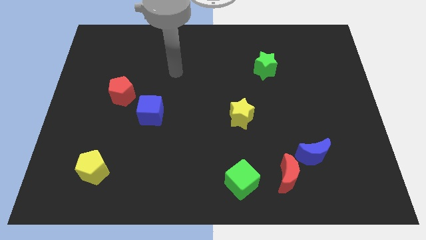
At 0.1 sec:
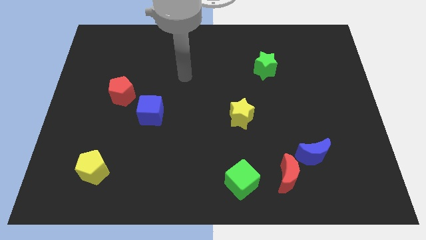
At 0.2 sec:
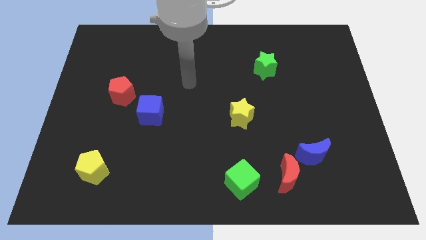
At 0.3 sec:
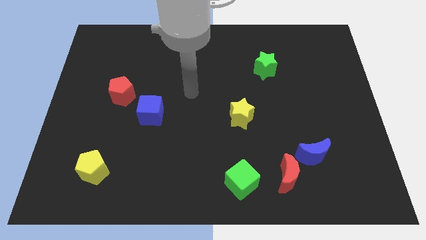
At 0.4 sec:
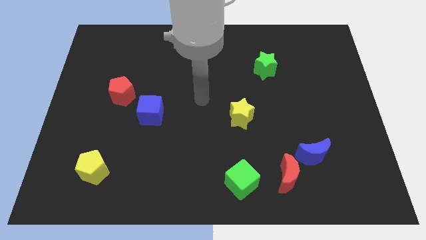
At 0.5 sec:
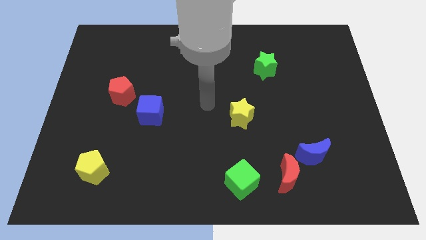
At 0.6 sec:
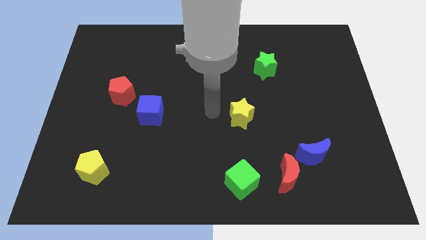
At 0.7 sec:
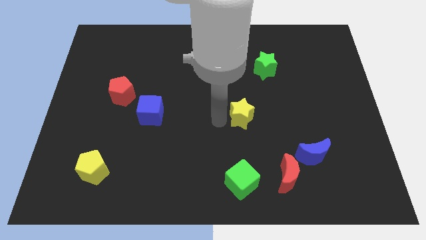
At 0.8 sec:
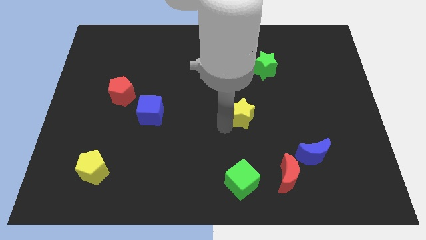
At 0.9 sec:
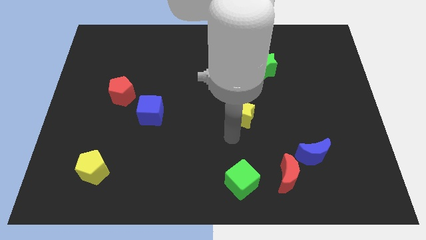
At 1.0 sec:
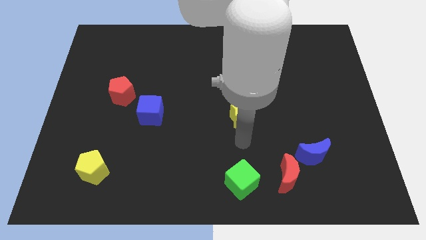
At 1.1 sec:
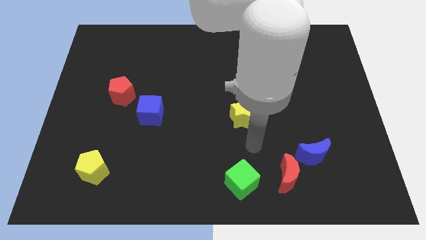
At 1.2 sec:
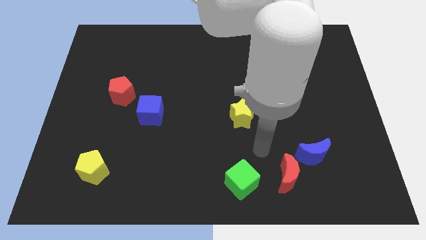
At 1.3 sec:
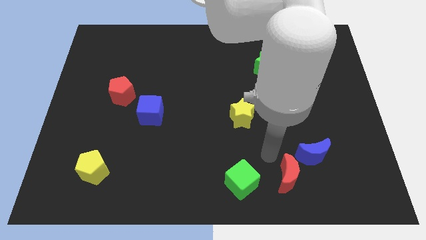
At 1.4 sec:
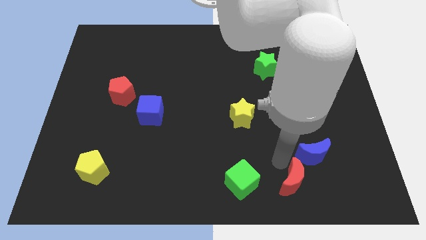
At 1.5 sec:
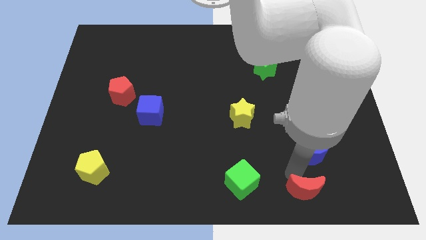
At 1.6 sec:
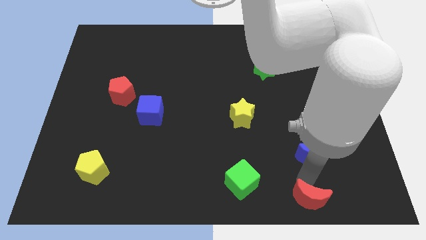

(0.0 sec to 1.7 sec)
move the blue moon away from the red moon

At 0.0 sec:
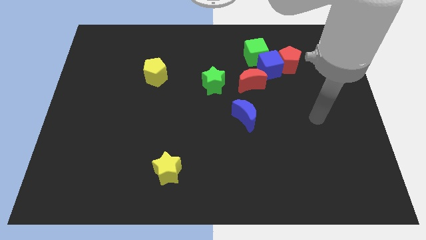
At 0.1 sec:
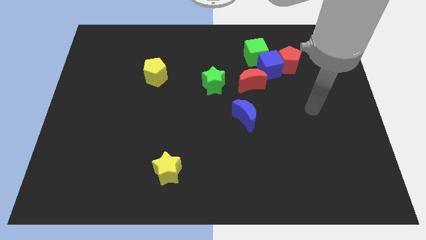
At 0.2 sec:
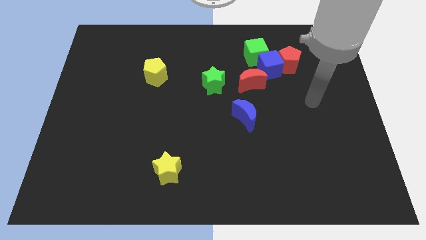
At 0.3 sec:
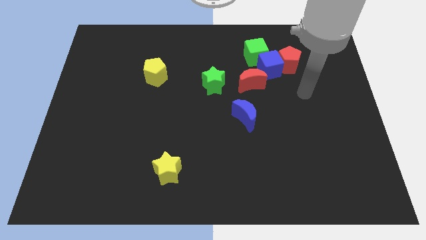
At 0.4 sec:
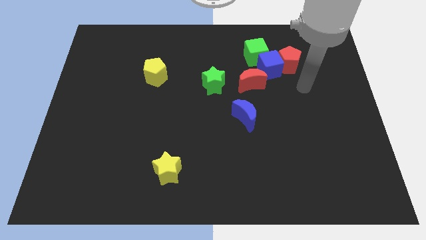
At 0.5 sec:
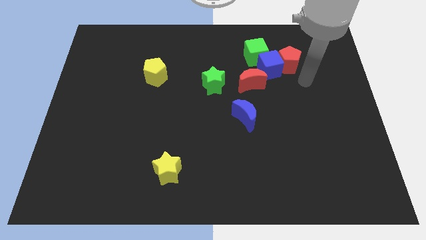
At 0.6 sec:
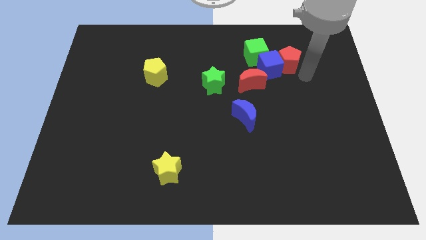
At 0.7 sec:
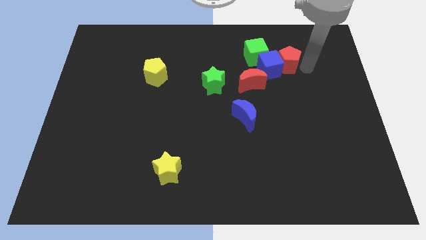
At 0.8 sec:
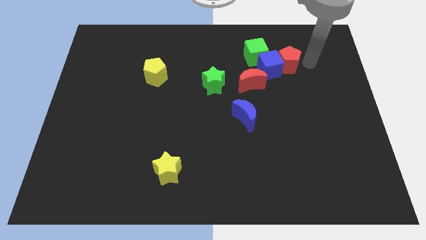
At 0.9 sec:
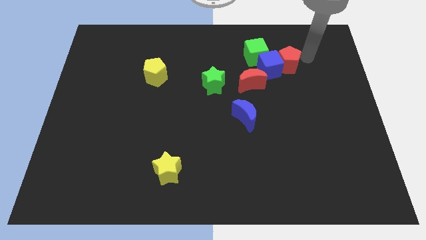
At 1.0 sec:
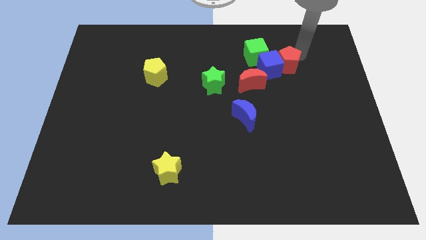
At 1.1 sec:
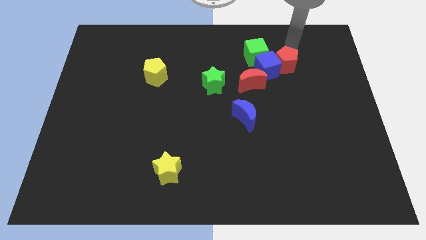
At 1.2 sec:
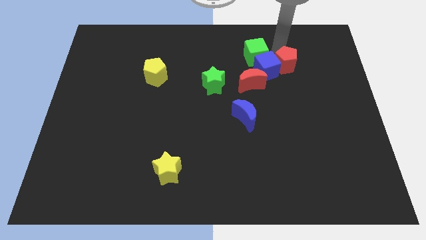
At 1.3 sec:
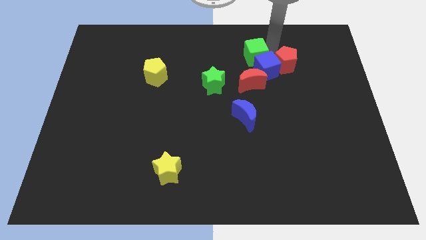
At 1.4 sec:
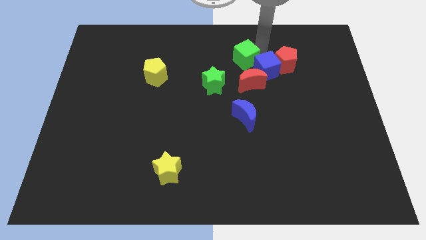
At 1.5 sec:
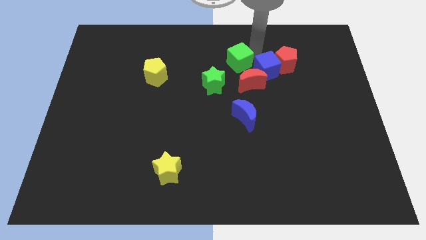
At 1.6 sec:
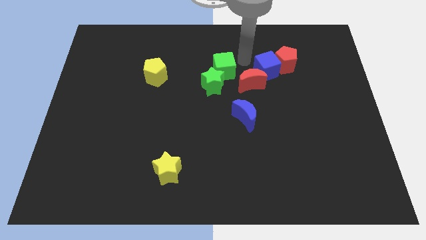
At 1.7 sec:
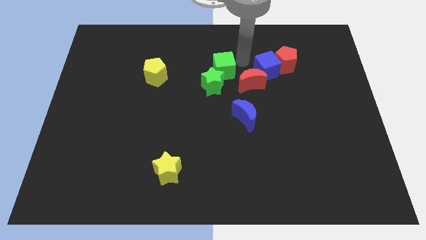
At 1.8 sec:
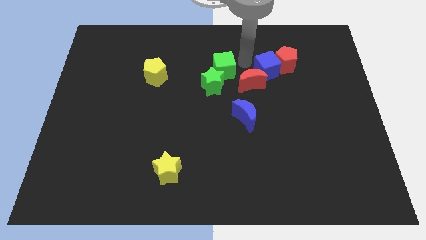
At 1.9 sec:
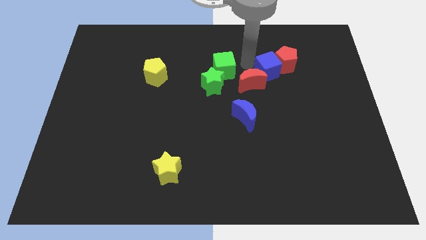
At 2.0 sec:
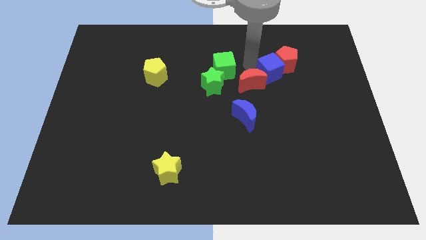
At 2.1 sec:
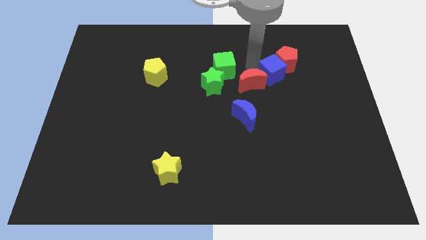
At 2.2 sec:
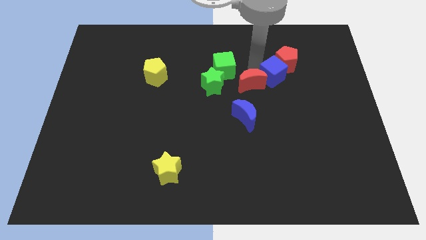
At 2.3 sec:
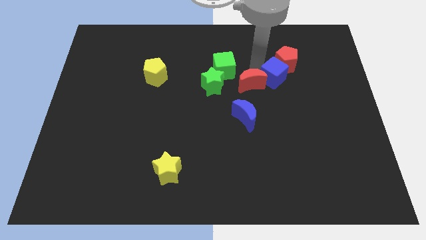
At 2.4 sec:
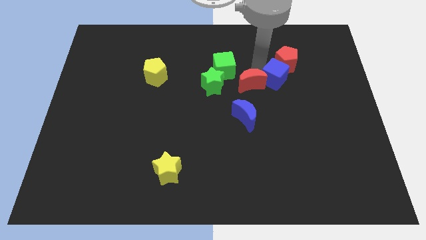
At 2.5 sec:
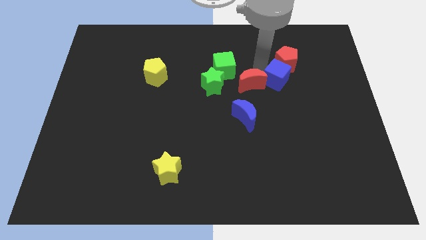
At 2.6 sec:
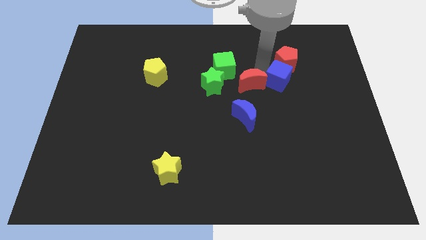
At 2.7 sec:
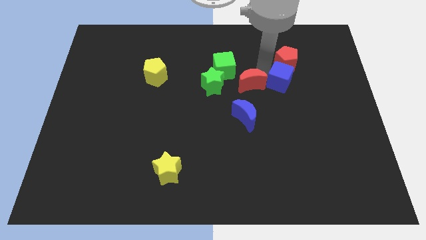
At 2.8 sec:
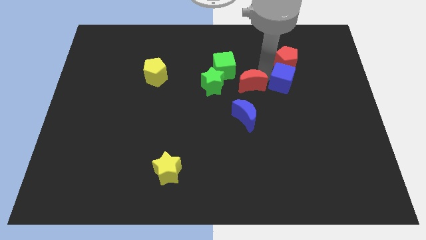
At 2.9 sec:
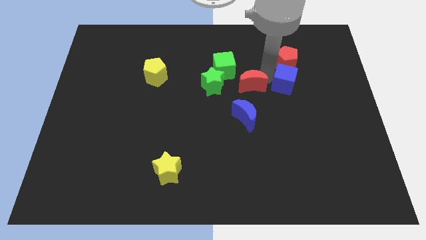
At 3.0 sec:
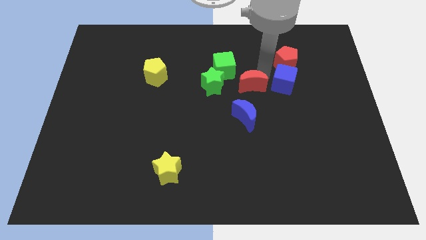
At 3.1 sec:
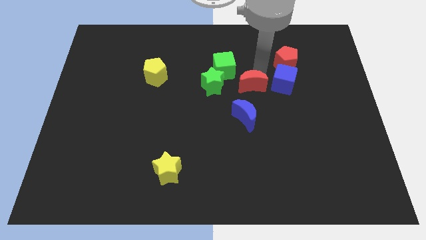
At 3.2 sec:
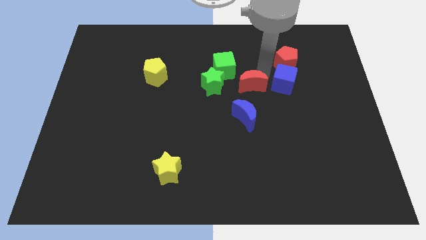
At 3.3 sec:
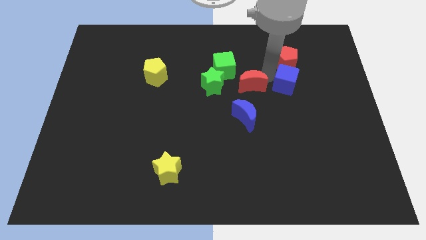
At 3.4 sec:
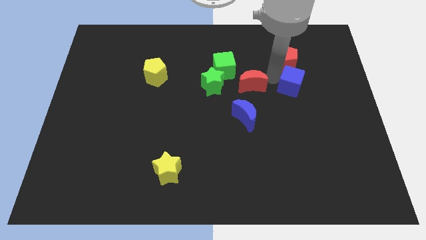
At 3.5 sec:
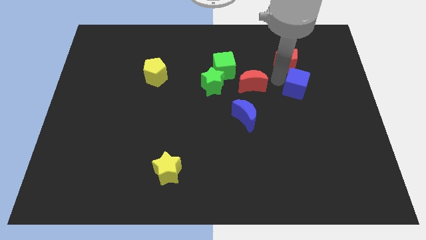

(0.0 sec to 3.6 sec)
separate the blue cube from the clump

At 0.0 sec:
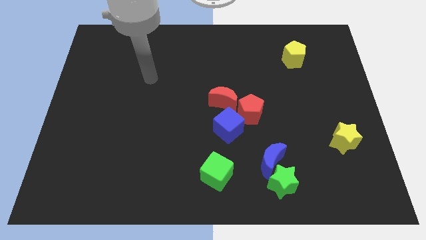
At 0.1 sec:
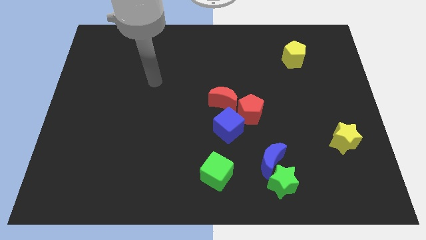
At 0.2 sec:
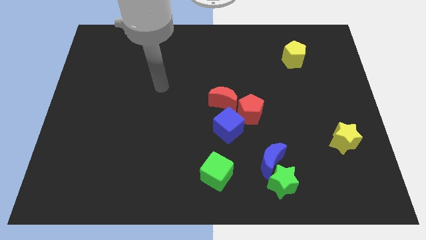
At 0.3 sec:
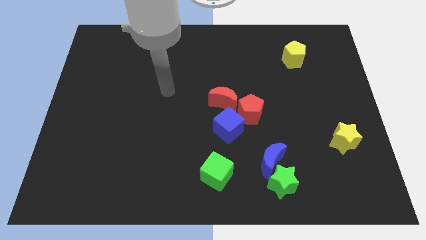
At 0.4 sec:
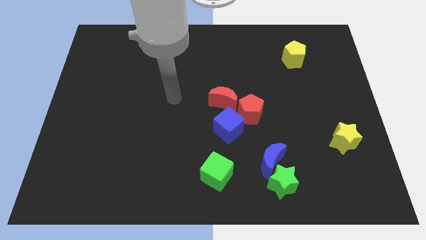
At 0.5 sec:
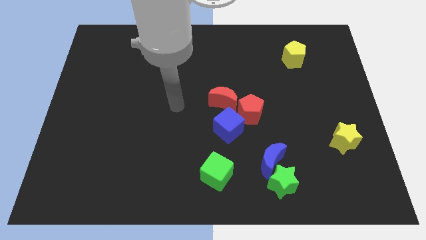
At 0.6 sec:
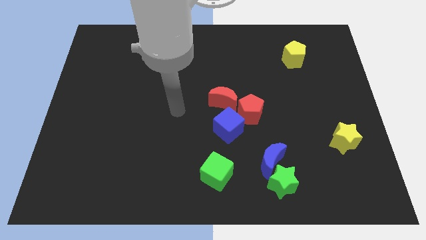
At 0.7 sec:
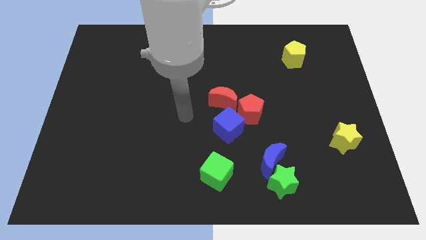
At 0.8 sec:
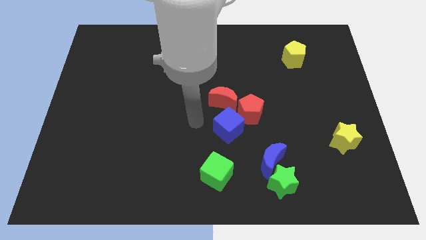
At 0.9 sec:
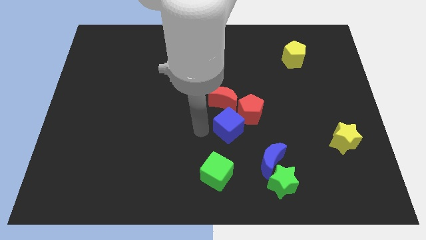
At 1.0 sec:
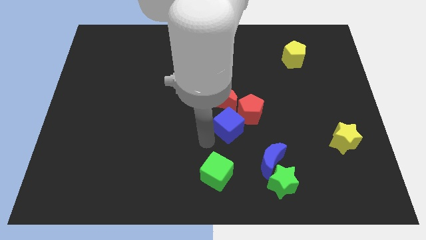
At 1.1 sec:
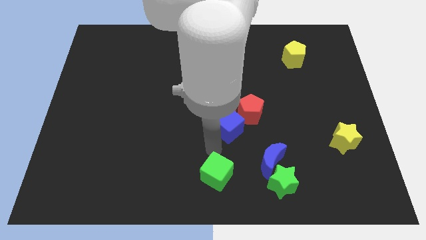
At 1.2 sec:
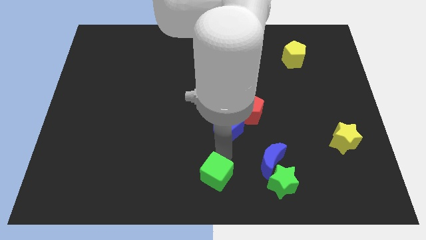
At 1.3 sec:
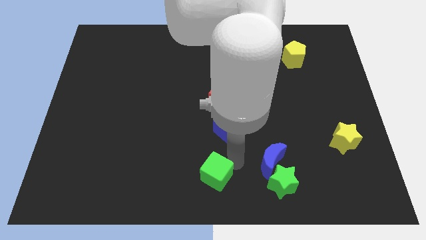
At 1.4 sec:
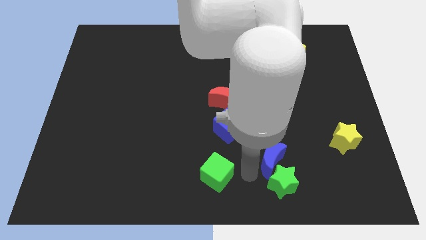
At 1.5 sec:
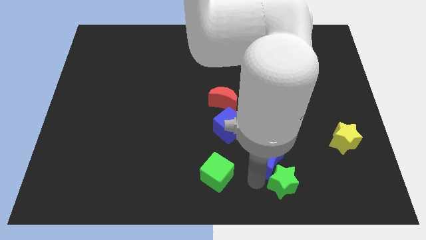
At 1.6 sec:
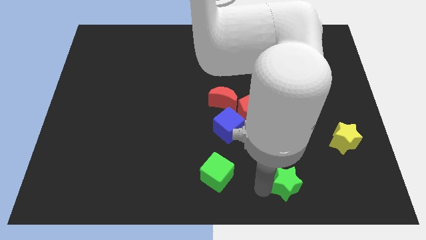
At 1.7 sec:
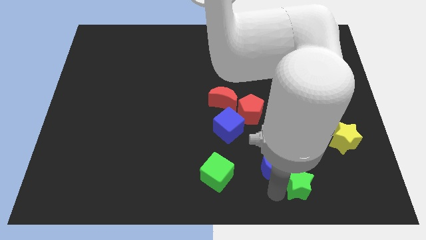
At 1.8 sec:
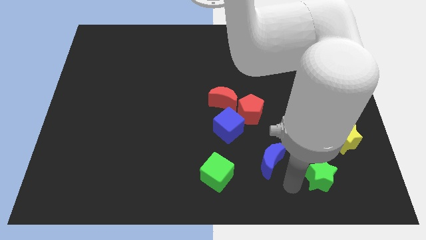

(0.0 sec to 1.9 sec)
move the blue moon away from the green star

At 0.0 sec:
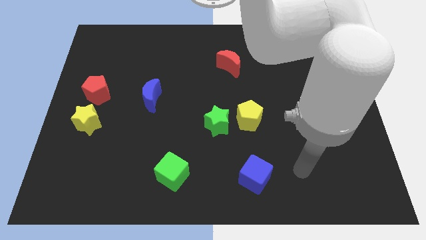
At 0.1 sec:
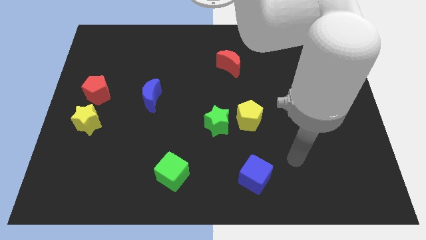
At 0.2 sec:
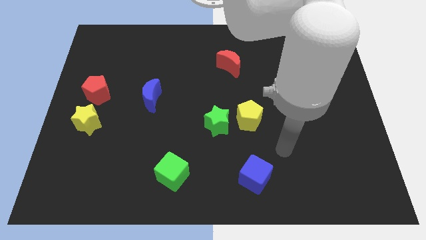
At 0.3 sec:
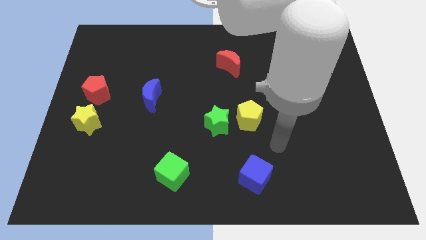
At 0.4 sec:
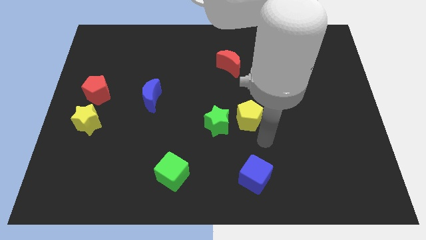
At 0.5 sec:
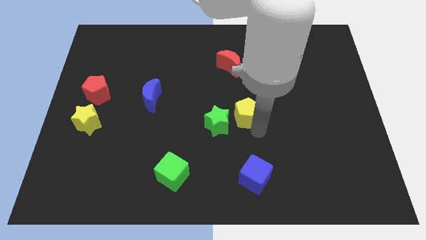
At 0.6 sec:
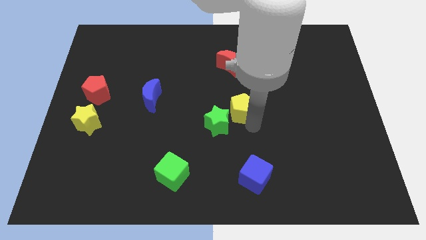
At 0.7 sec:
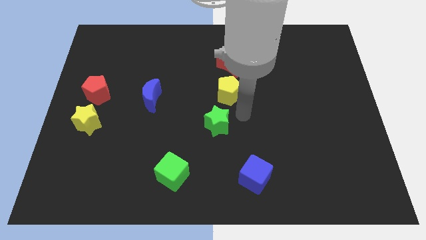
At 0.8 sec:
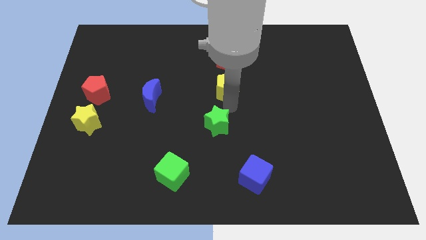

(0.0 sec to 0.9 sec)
pull the green star apart from the yellow pentagon

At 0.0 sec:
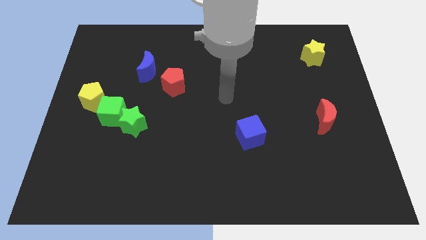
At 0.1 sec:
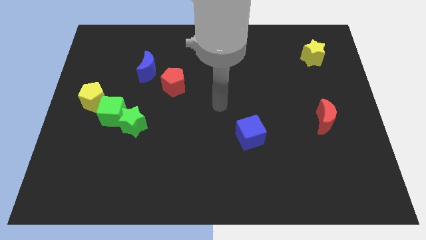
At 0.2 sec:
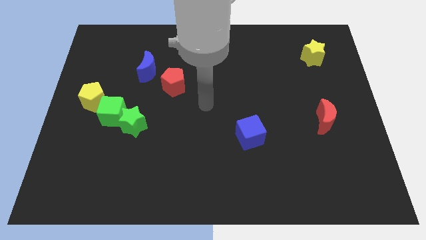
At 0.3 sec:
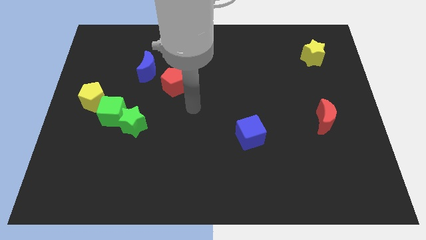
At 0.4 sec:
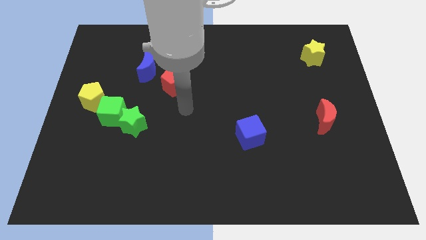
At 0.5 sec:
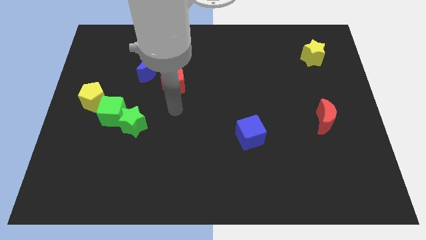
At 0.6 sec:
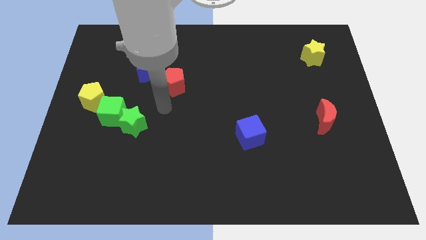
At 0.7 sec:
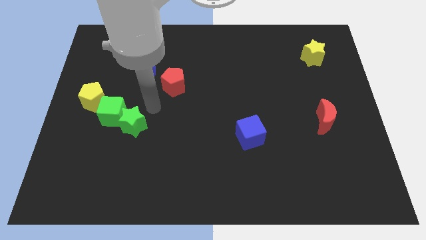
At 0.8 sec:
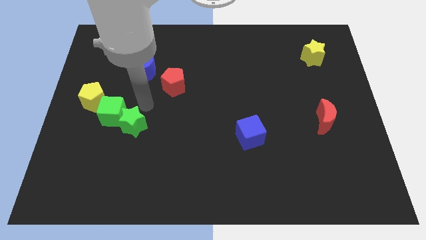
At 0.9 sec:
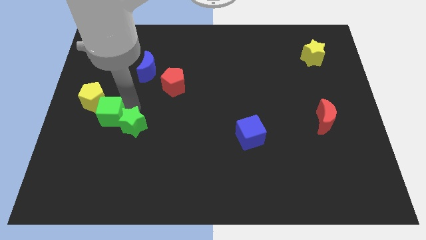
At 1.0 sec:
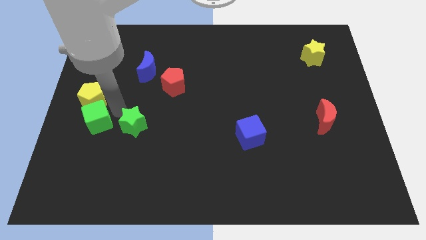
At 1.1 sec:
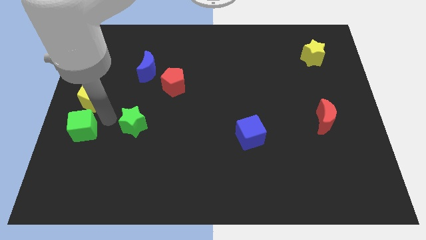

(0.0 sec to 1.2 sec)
separate the green star from the green cube
